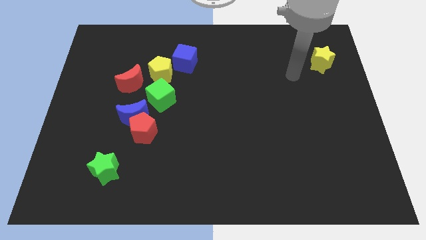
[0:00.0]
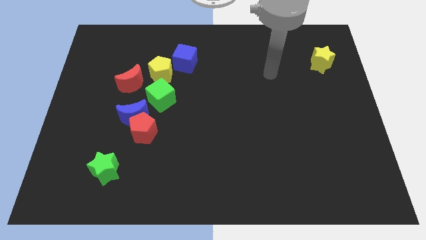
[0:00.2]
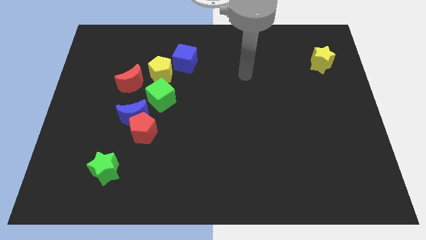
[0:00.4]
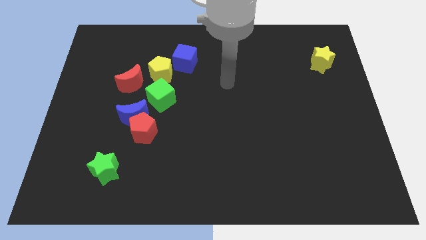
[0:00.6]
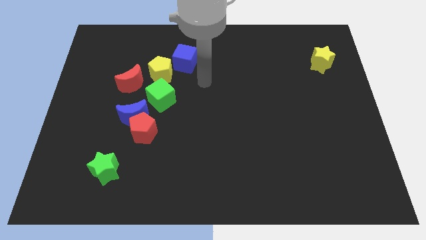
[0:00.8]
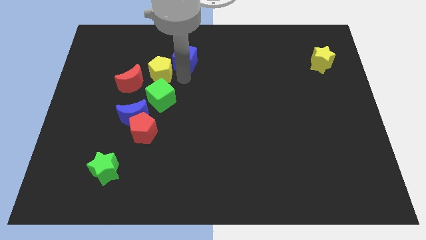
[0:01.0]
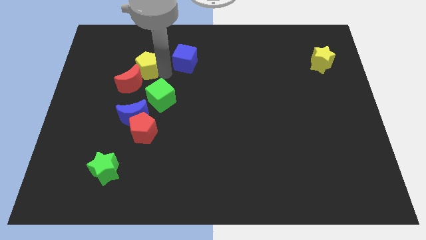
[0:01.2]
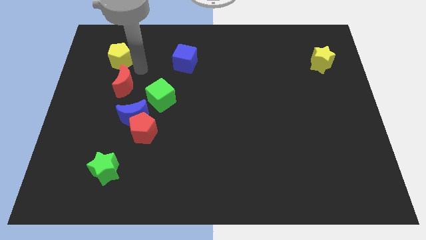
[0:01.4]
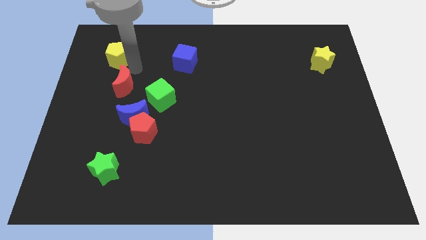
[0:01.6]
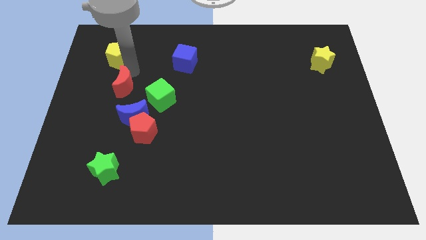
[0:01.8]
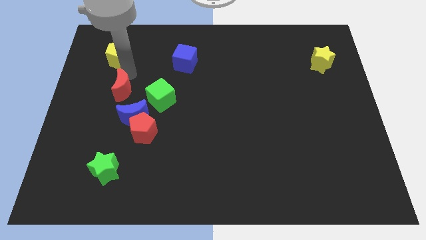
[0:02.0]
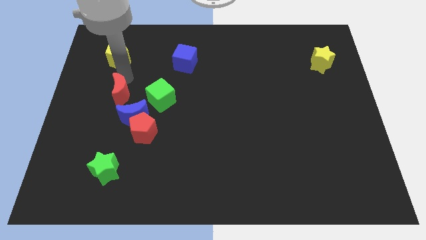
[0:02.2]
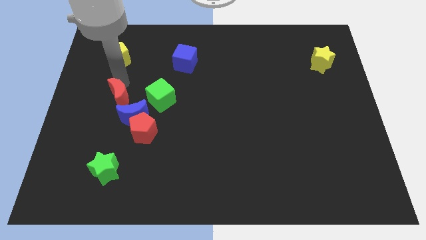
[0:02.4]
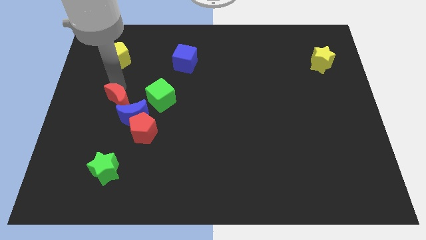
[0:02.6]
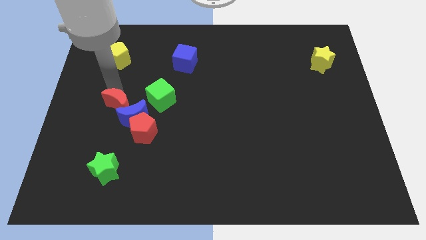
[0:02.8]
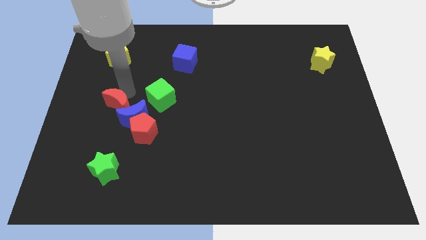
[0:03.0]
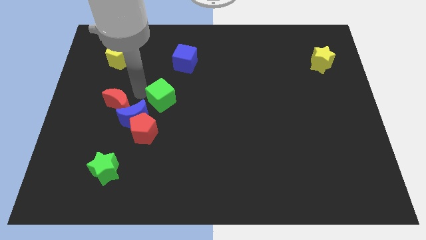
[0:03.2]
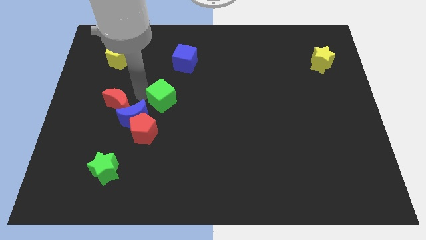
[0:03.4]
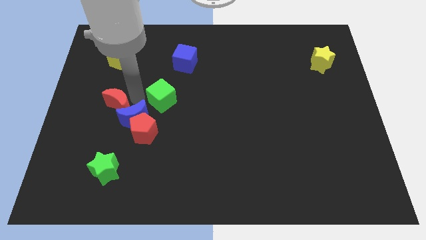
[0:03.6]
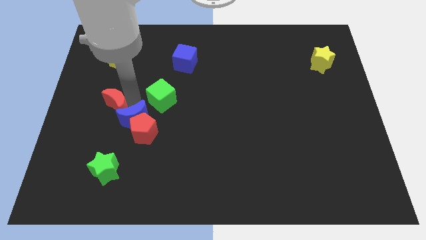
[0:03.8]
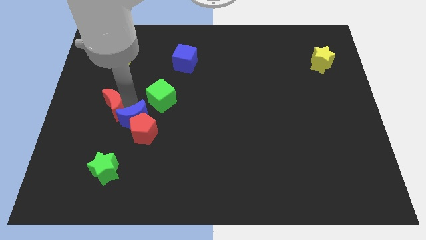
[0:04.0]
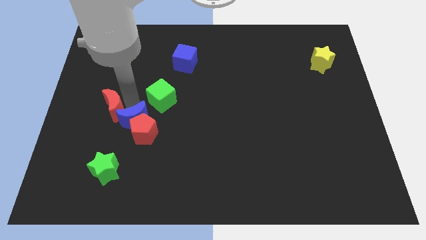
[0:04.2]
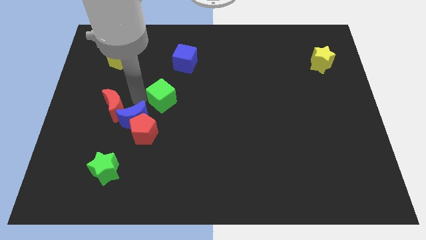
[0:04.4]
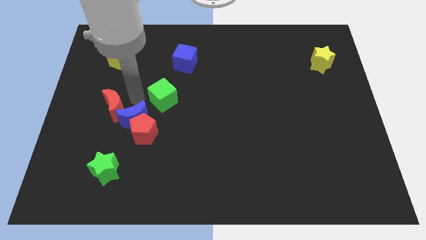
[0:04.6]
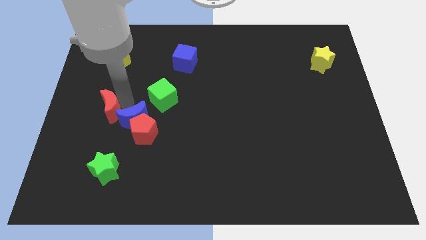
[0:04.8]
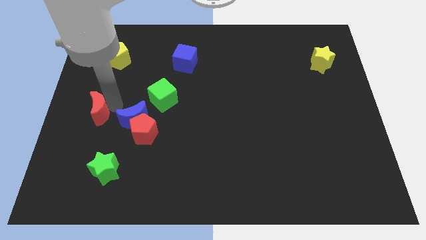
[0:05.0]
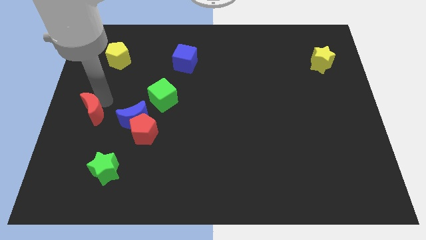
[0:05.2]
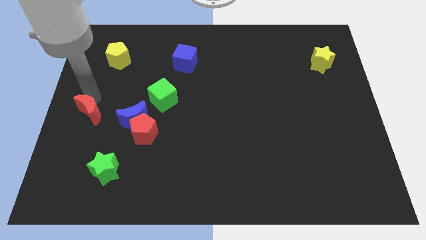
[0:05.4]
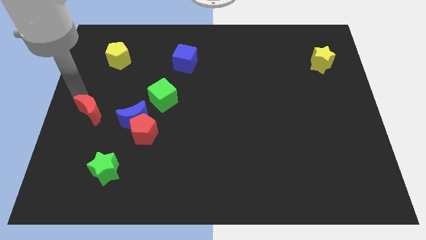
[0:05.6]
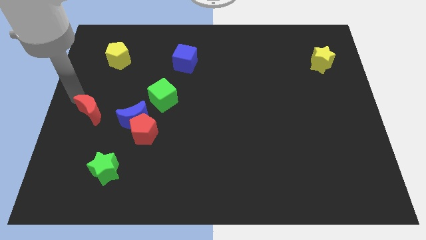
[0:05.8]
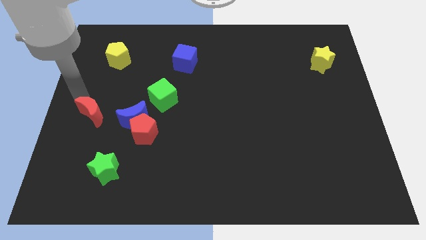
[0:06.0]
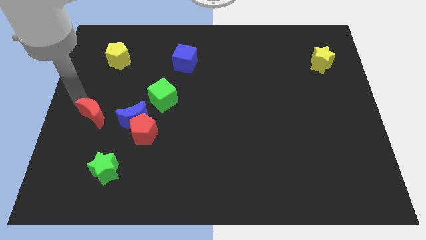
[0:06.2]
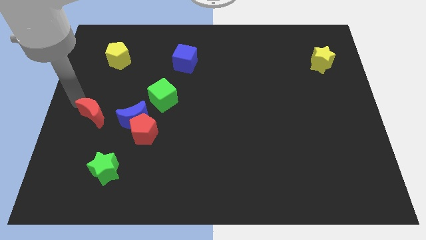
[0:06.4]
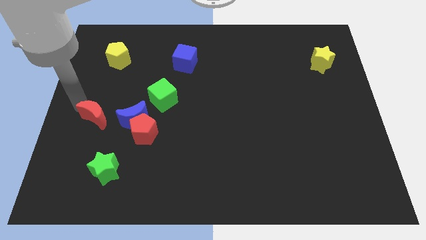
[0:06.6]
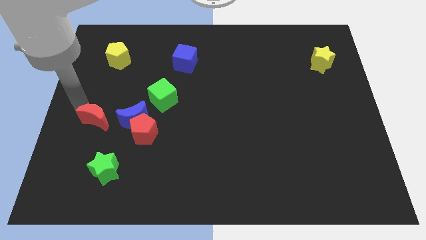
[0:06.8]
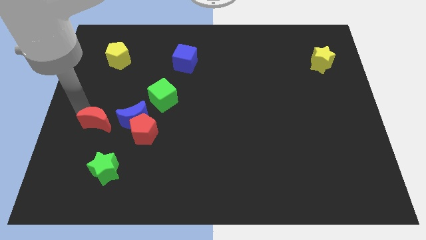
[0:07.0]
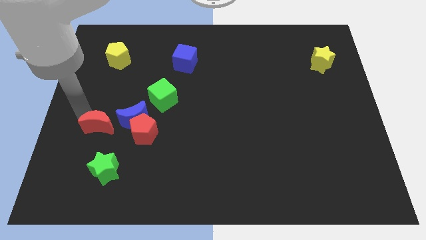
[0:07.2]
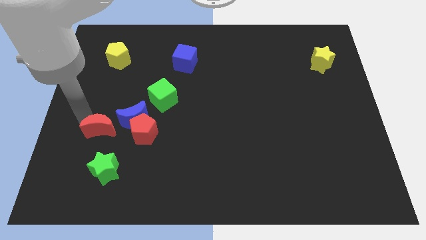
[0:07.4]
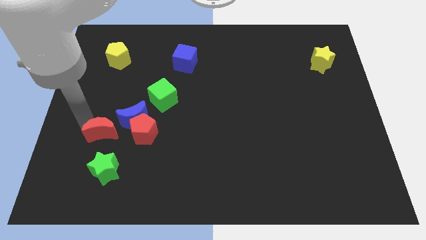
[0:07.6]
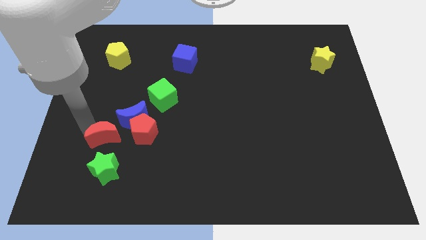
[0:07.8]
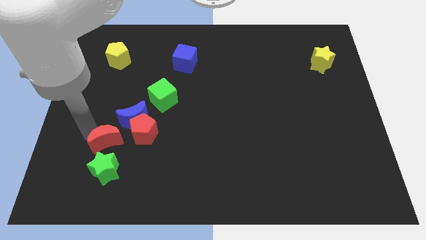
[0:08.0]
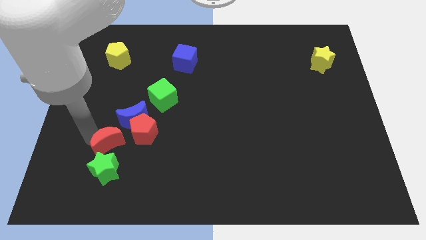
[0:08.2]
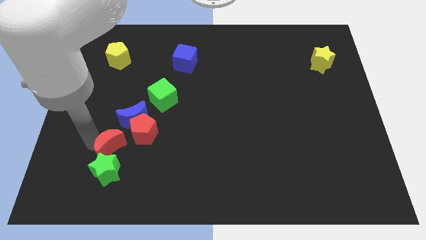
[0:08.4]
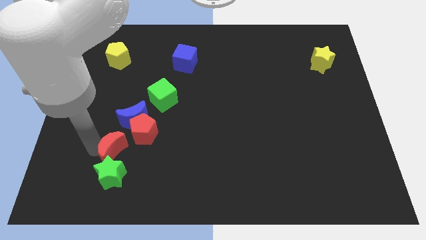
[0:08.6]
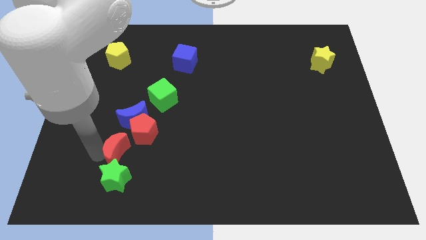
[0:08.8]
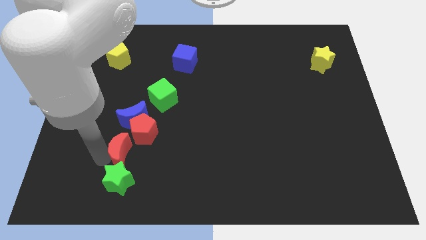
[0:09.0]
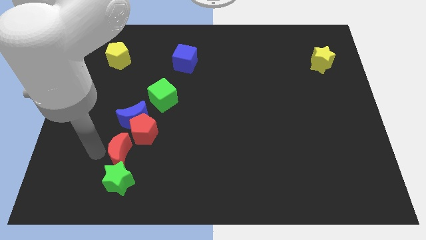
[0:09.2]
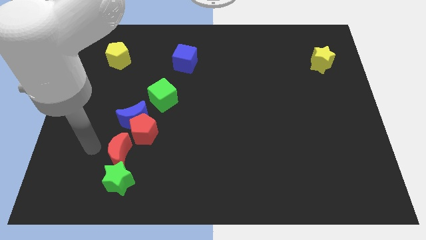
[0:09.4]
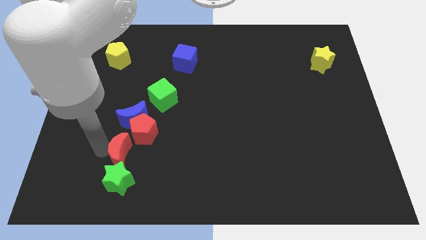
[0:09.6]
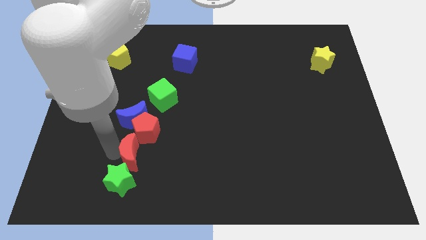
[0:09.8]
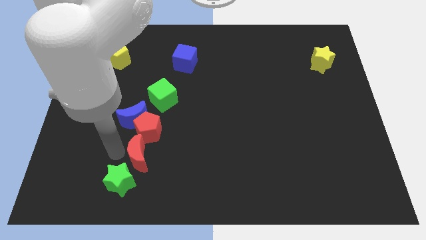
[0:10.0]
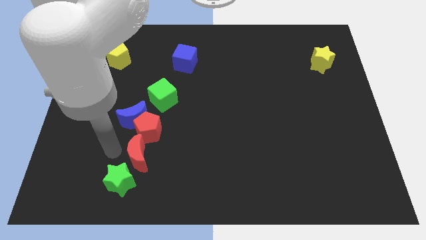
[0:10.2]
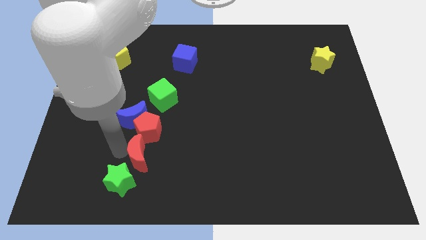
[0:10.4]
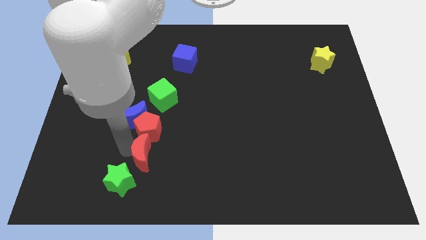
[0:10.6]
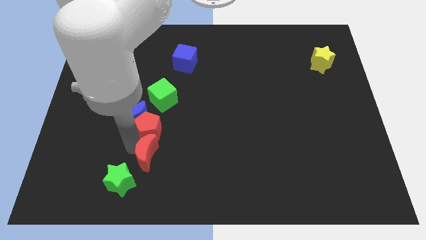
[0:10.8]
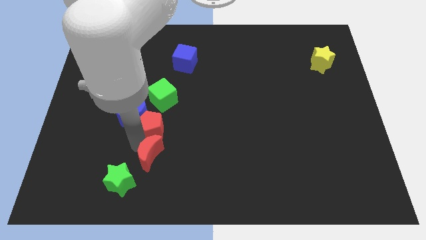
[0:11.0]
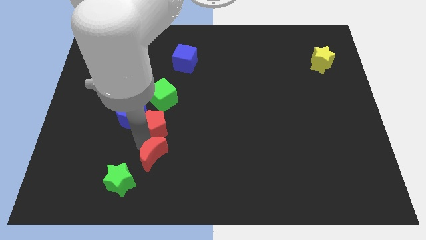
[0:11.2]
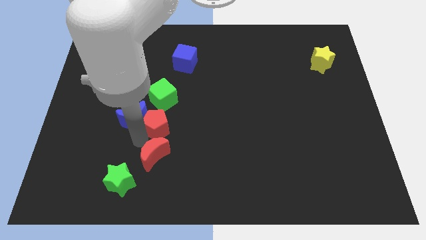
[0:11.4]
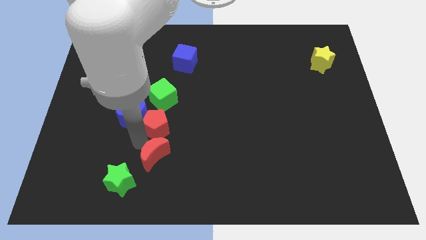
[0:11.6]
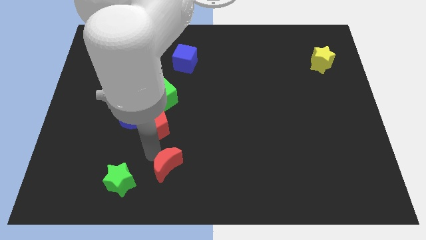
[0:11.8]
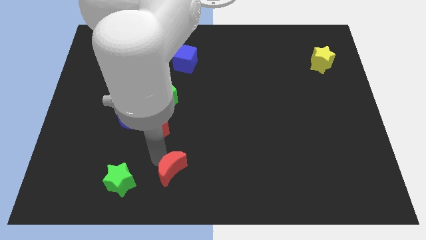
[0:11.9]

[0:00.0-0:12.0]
slide the red moon to the bottom
